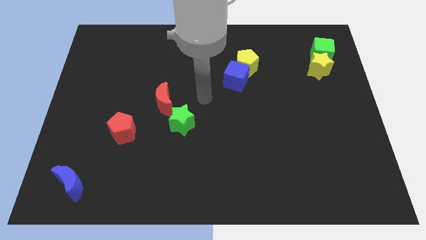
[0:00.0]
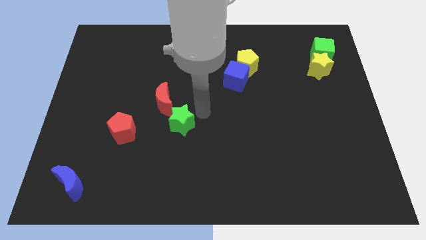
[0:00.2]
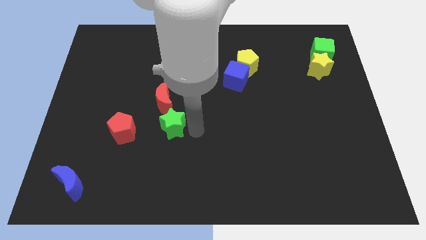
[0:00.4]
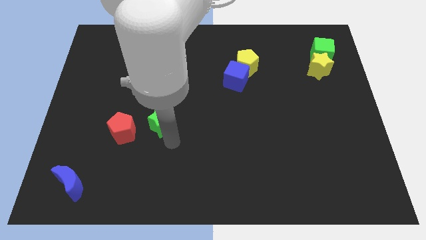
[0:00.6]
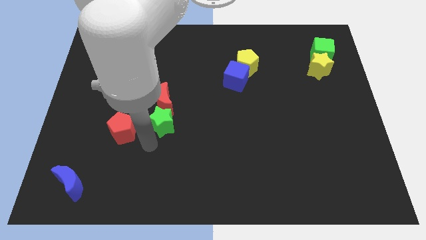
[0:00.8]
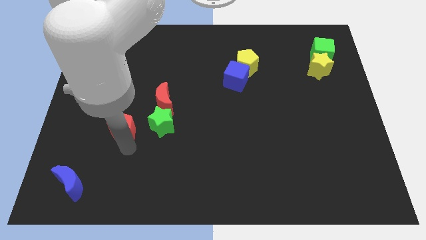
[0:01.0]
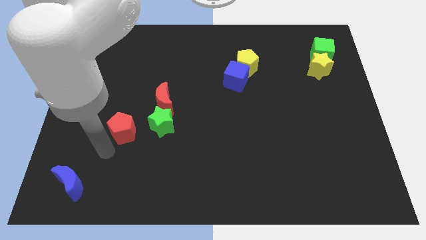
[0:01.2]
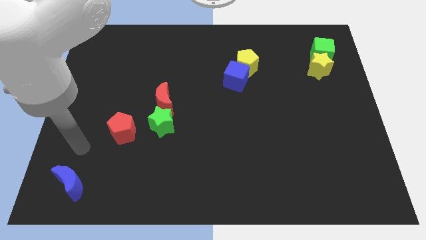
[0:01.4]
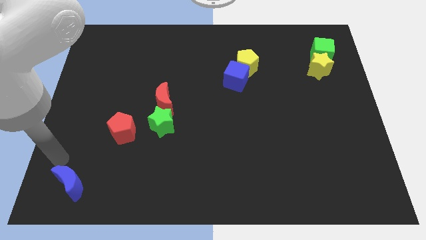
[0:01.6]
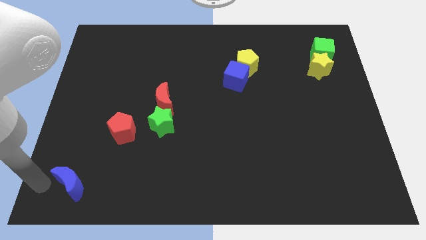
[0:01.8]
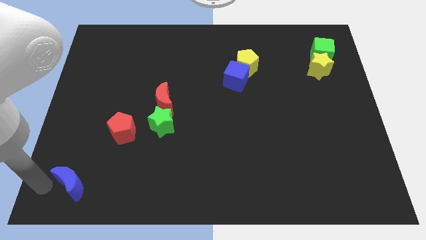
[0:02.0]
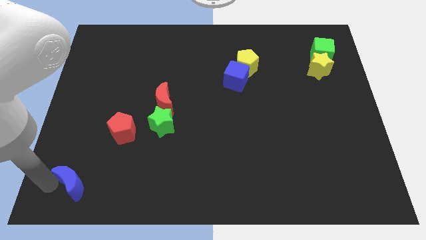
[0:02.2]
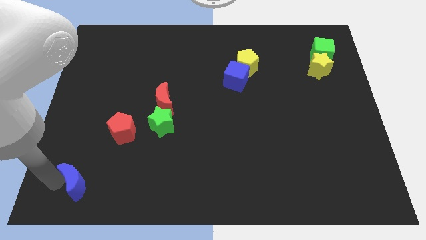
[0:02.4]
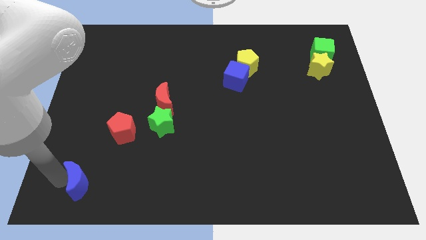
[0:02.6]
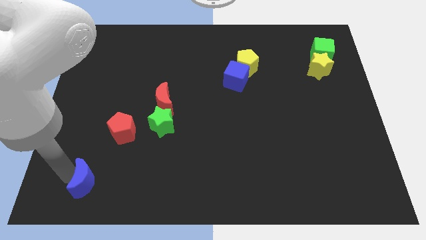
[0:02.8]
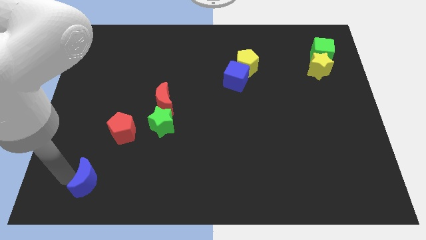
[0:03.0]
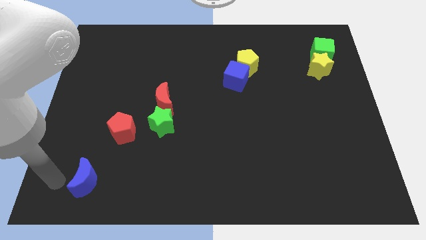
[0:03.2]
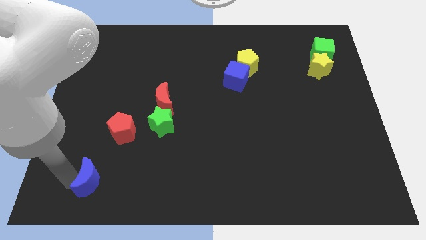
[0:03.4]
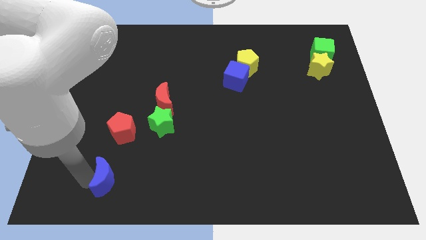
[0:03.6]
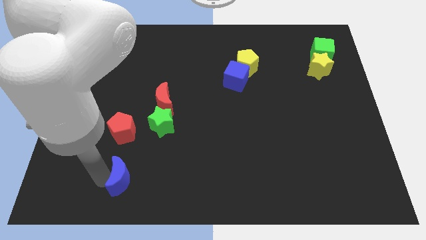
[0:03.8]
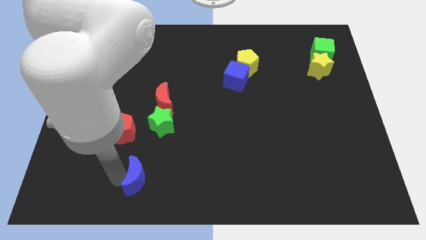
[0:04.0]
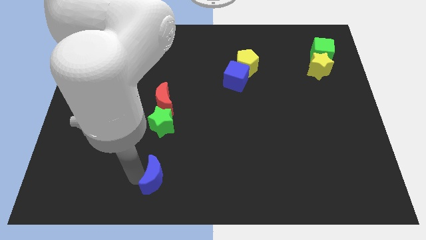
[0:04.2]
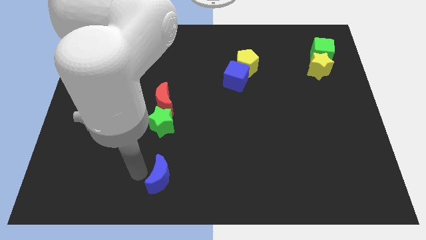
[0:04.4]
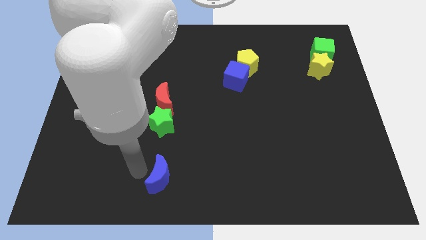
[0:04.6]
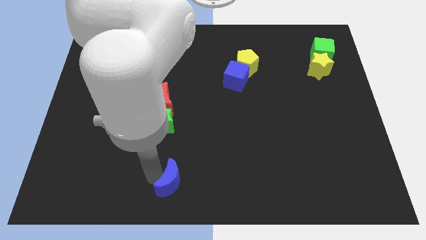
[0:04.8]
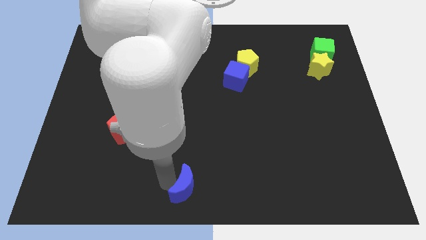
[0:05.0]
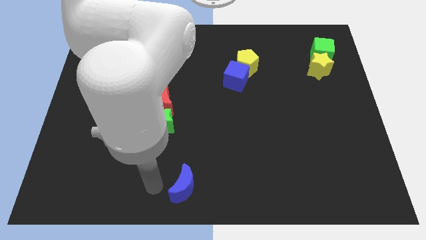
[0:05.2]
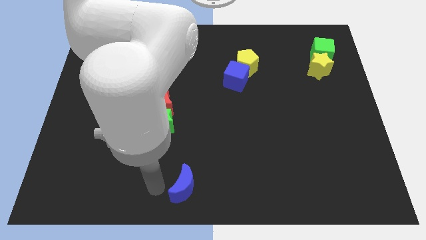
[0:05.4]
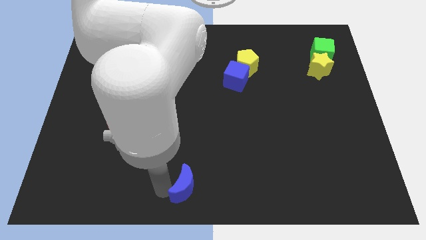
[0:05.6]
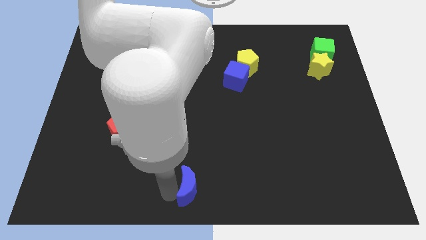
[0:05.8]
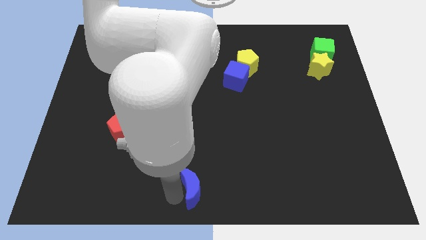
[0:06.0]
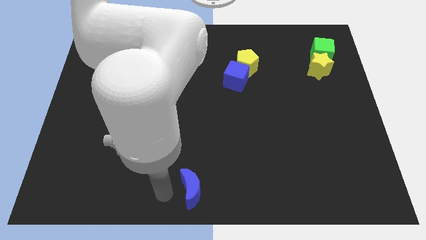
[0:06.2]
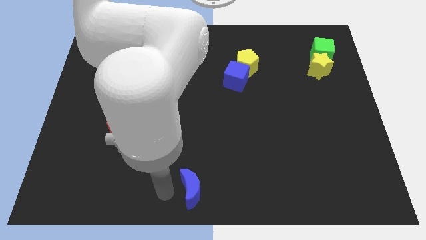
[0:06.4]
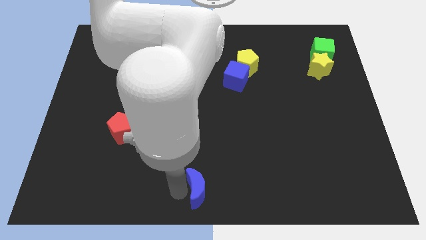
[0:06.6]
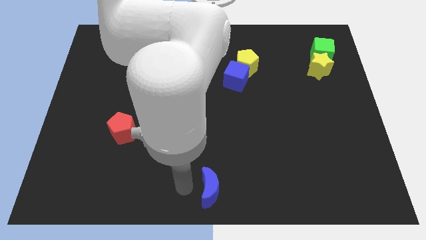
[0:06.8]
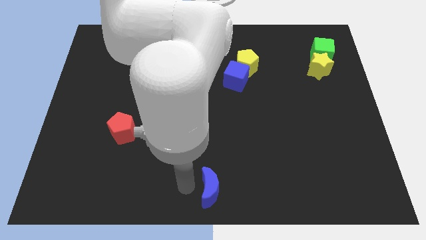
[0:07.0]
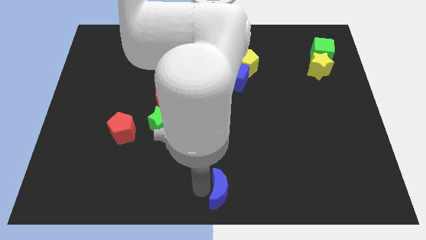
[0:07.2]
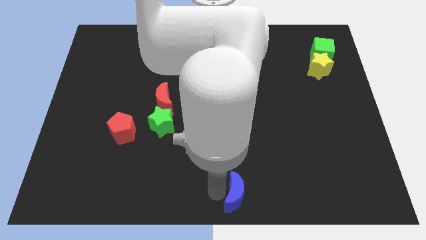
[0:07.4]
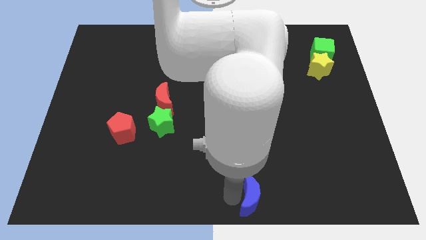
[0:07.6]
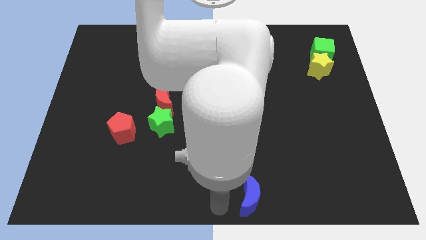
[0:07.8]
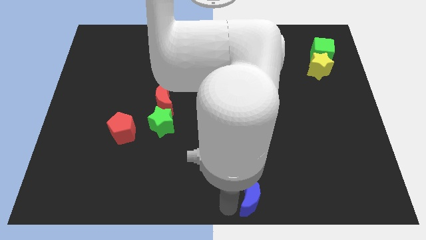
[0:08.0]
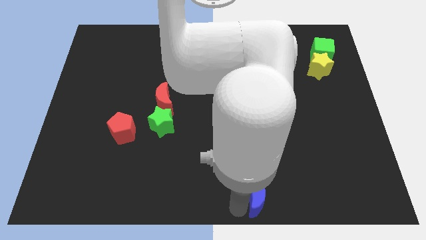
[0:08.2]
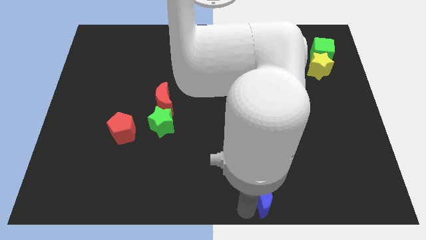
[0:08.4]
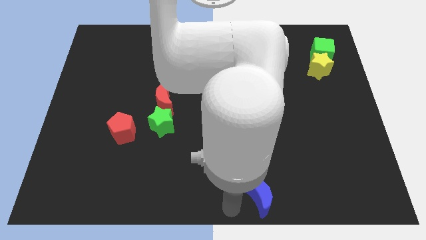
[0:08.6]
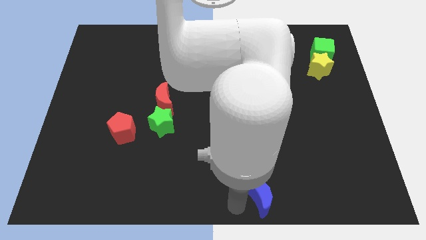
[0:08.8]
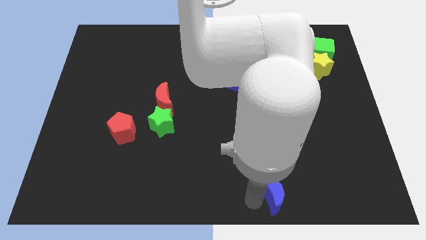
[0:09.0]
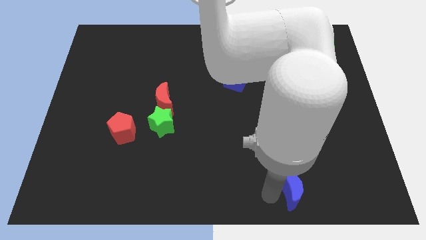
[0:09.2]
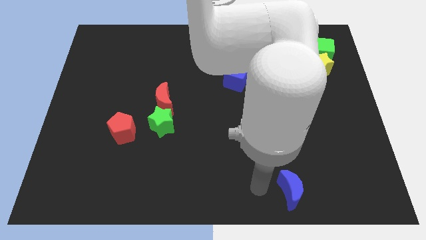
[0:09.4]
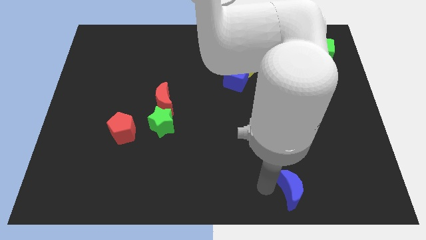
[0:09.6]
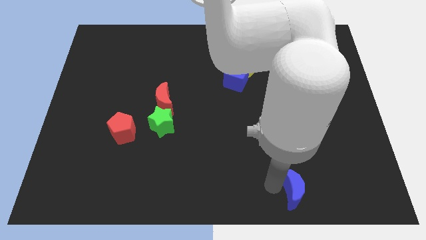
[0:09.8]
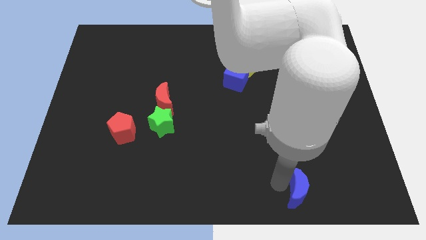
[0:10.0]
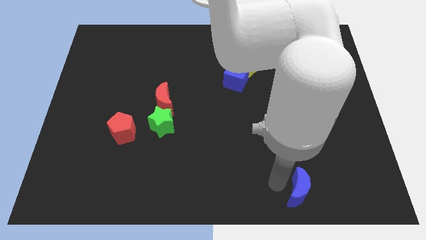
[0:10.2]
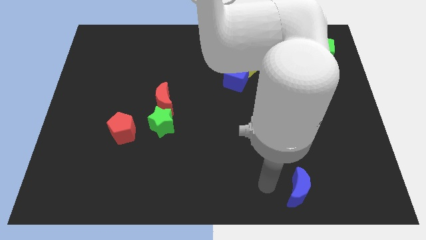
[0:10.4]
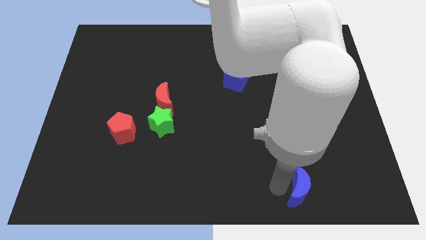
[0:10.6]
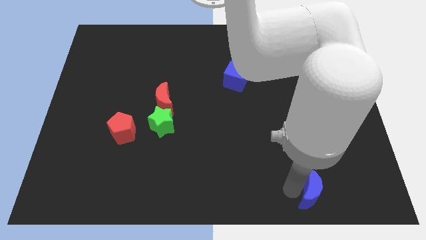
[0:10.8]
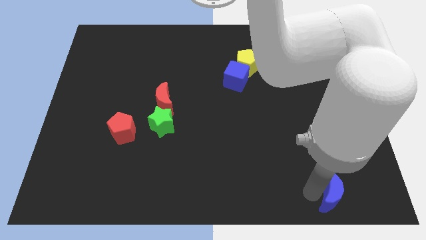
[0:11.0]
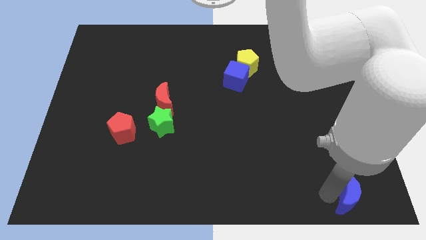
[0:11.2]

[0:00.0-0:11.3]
put the blue moon to the bottom right corner

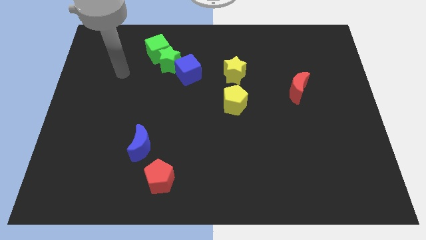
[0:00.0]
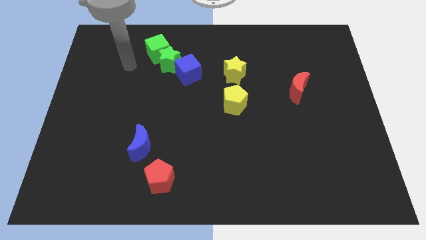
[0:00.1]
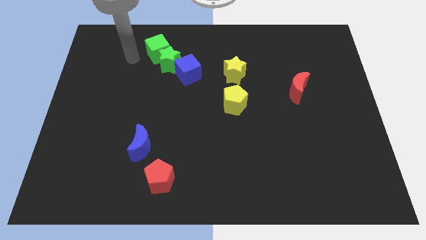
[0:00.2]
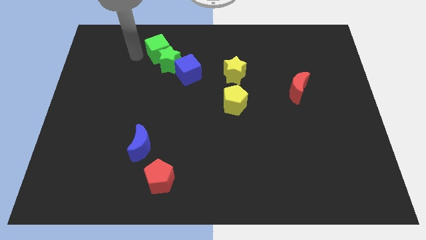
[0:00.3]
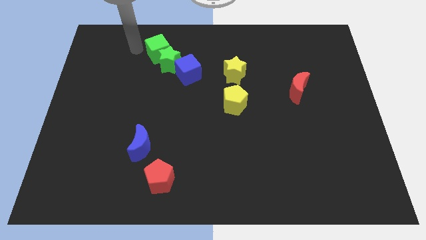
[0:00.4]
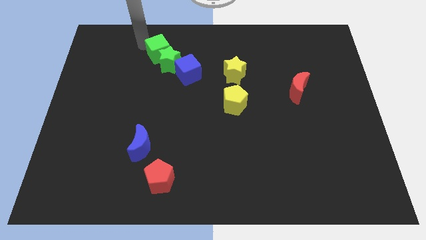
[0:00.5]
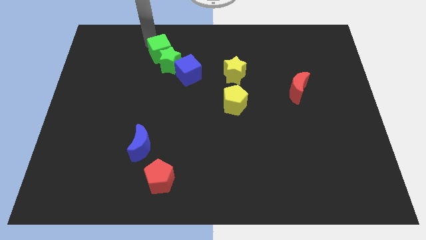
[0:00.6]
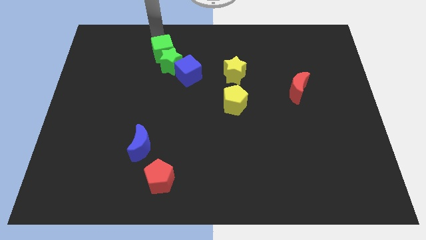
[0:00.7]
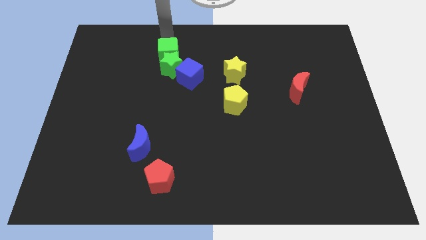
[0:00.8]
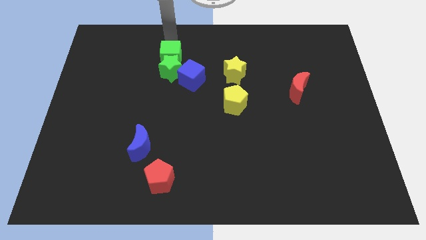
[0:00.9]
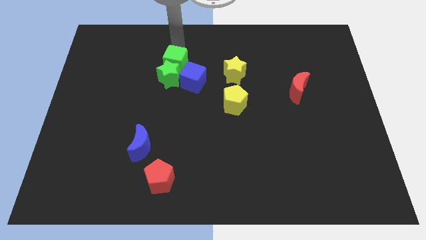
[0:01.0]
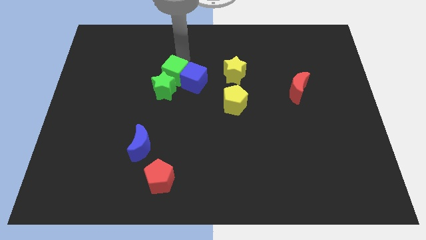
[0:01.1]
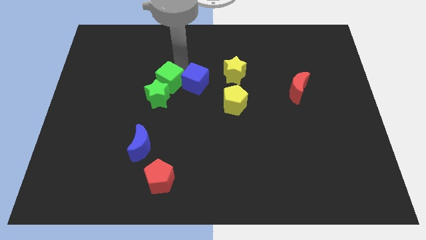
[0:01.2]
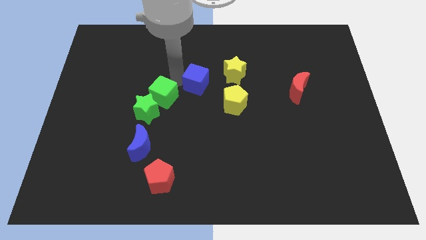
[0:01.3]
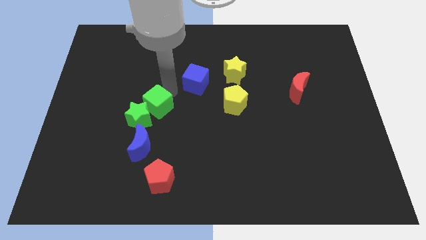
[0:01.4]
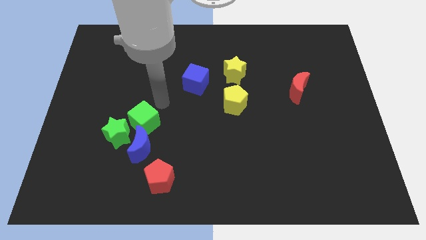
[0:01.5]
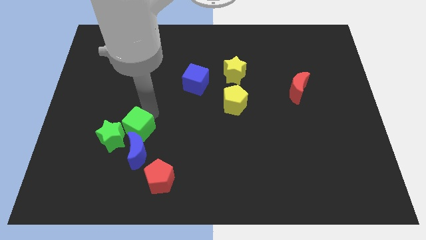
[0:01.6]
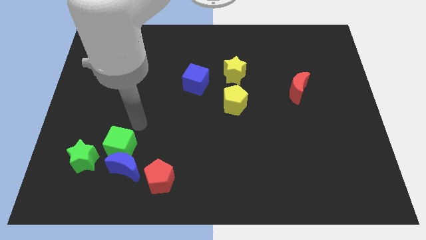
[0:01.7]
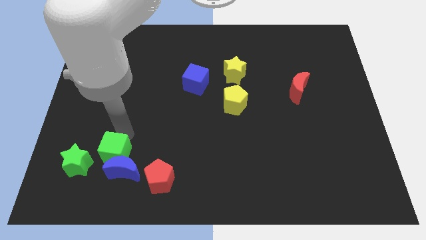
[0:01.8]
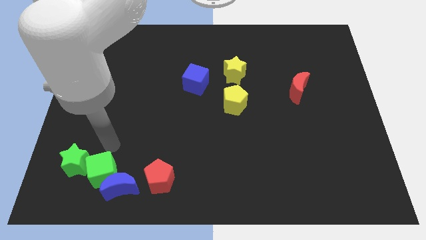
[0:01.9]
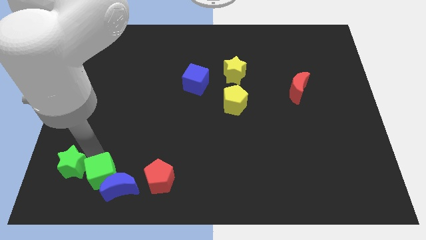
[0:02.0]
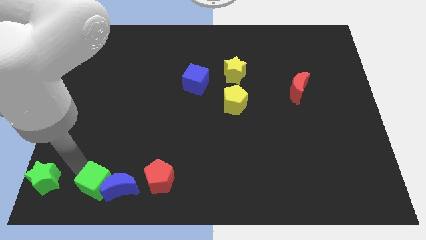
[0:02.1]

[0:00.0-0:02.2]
move the green star to the bottom left
